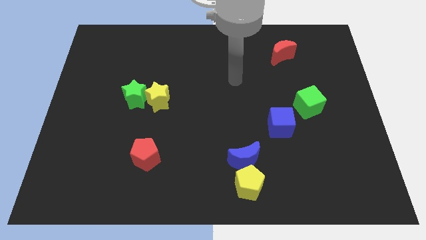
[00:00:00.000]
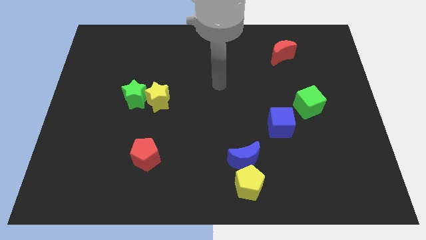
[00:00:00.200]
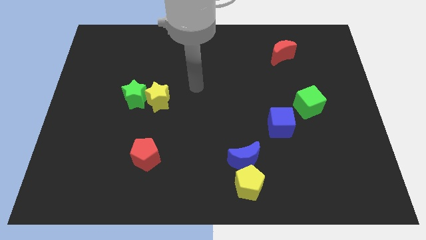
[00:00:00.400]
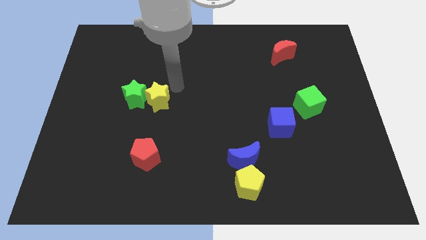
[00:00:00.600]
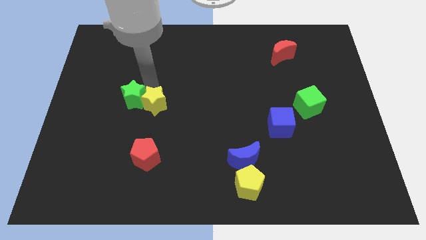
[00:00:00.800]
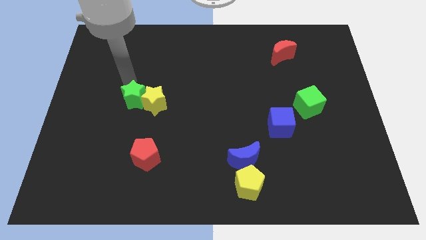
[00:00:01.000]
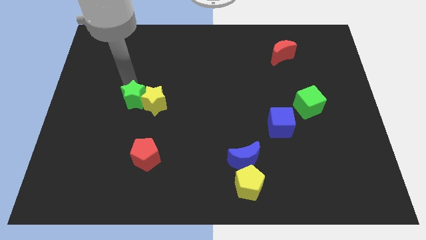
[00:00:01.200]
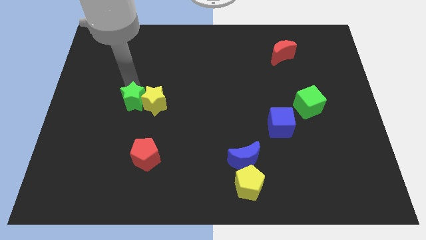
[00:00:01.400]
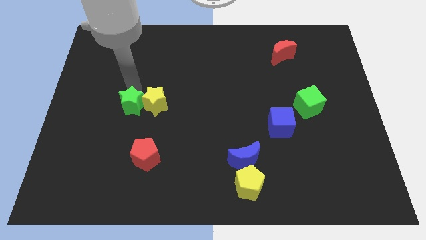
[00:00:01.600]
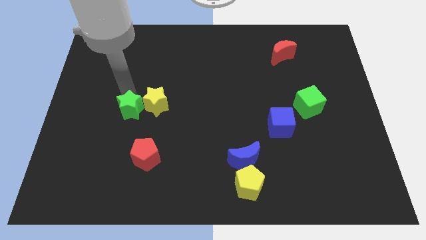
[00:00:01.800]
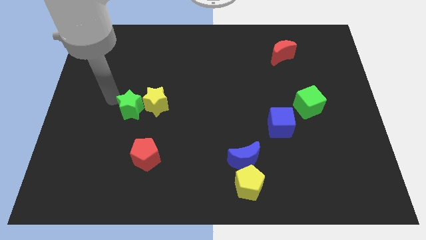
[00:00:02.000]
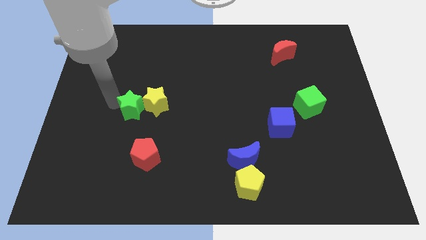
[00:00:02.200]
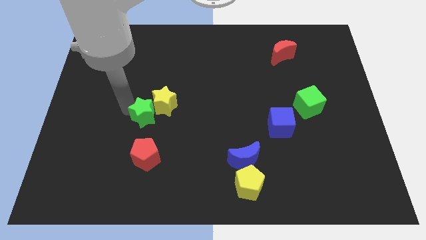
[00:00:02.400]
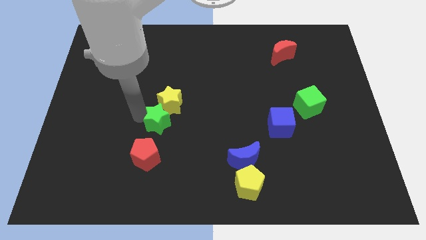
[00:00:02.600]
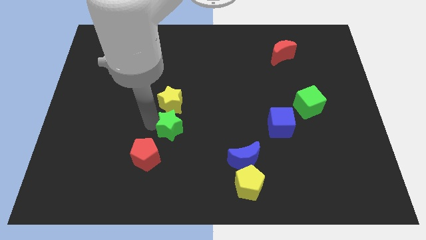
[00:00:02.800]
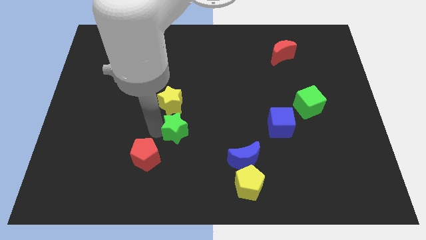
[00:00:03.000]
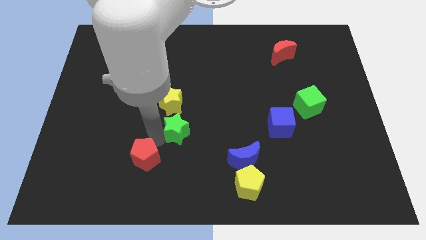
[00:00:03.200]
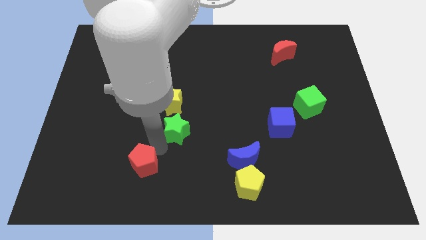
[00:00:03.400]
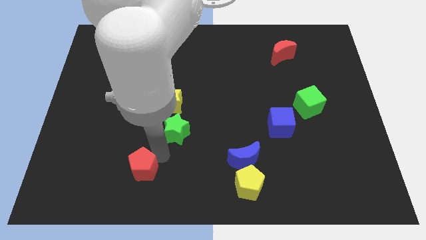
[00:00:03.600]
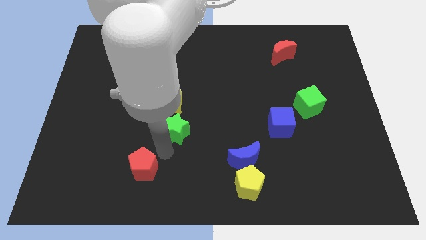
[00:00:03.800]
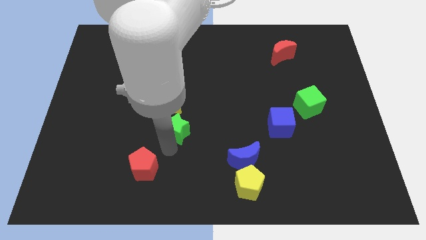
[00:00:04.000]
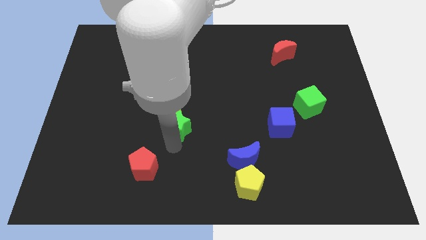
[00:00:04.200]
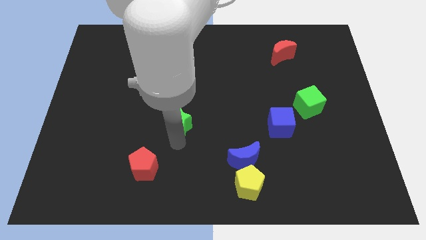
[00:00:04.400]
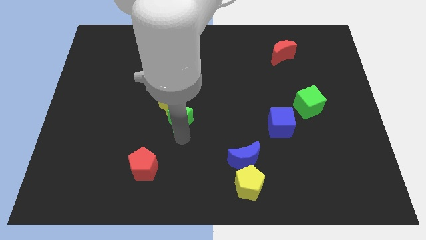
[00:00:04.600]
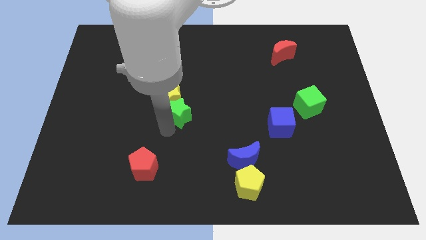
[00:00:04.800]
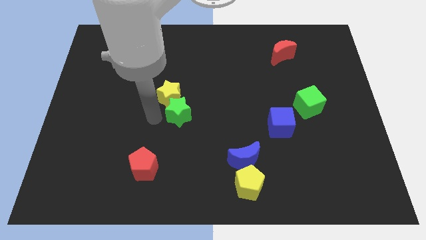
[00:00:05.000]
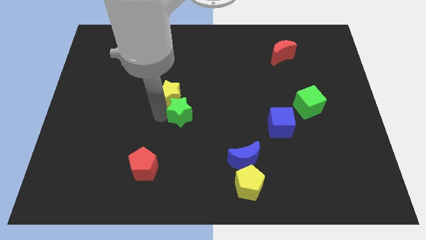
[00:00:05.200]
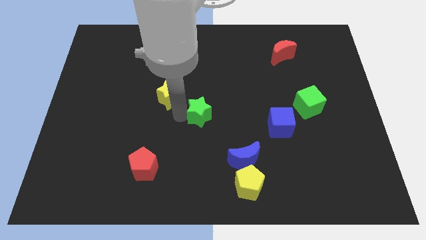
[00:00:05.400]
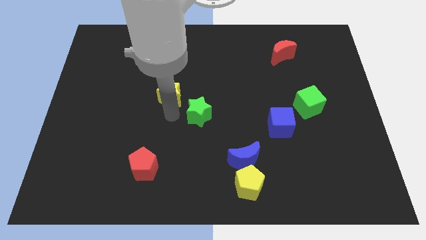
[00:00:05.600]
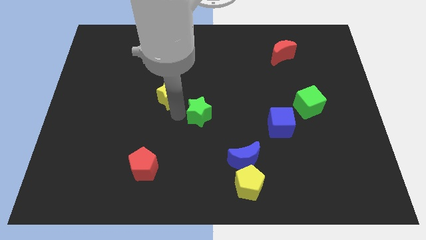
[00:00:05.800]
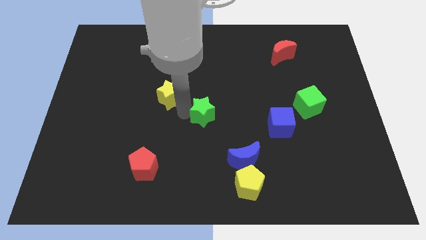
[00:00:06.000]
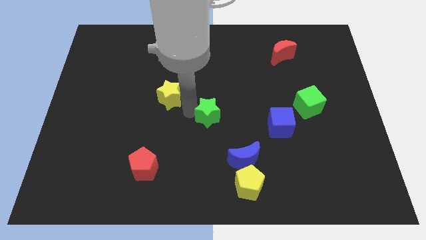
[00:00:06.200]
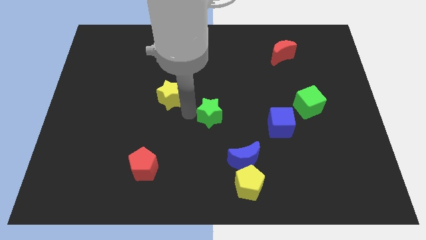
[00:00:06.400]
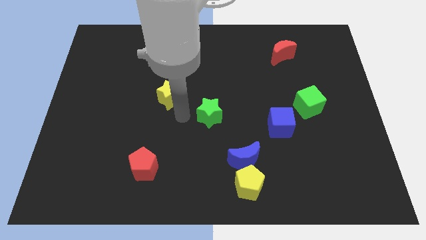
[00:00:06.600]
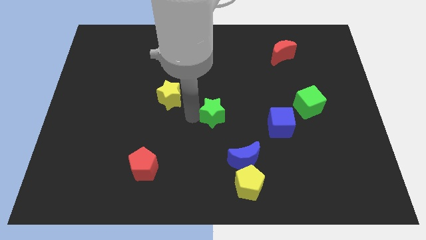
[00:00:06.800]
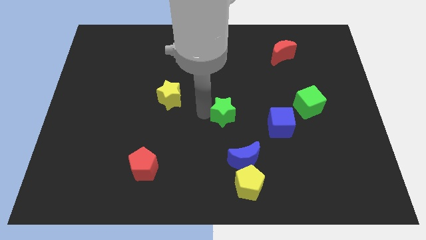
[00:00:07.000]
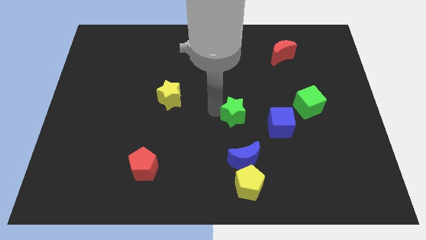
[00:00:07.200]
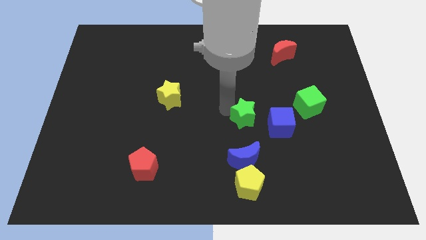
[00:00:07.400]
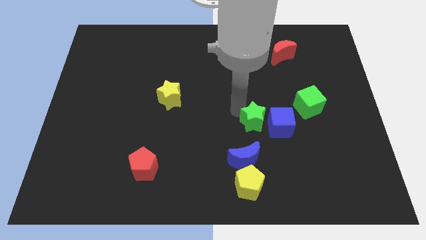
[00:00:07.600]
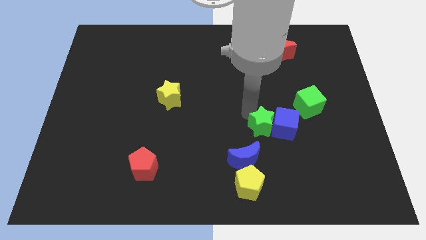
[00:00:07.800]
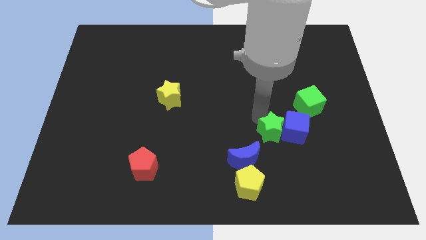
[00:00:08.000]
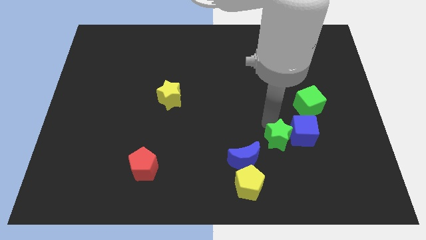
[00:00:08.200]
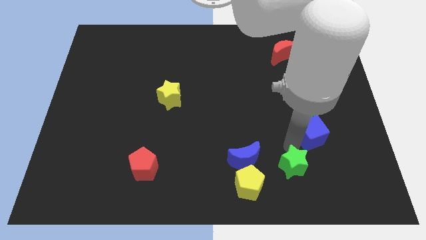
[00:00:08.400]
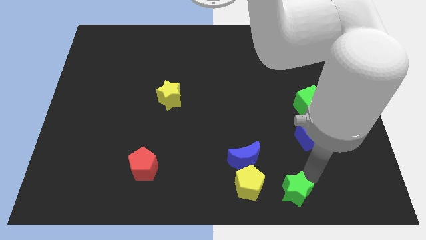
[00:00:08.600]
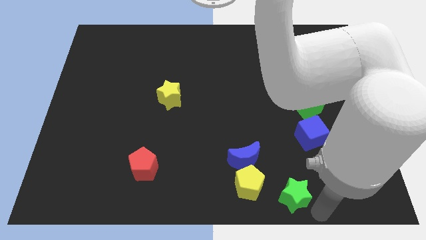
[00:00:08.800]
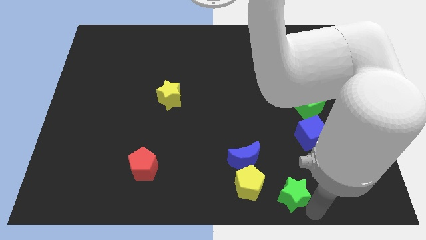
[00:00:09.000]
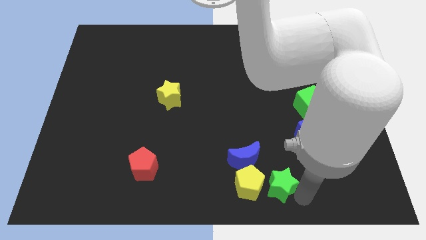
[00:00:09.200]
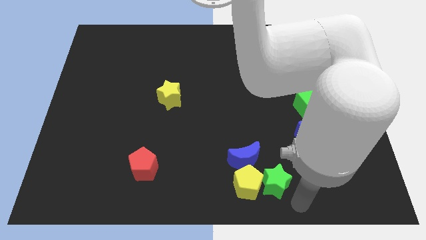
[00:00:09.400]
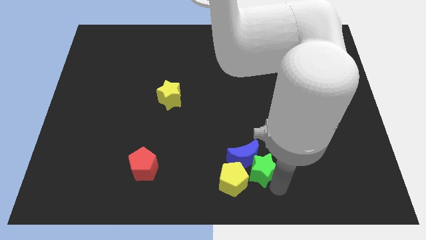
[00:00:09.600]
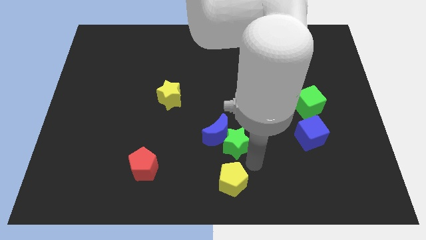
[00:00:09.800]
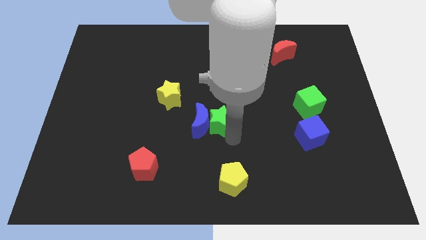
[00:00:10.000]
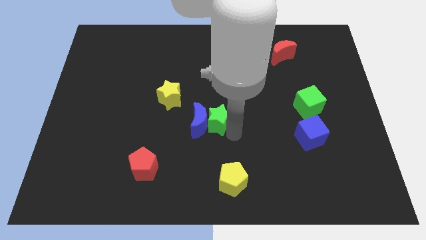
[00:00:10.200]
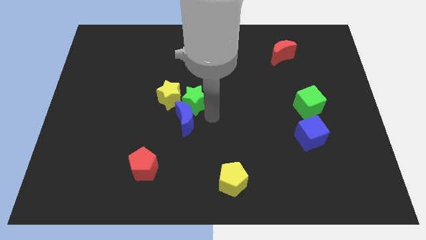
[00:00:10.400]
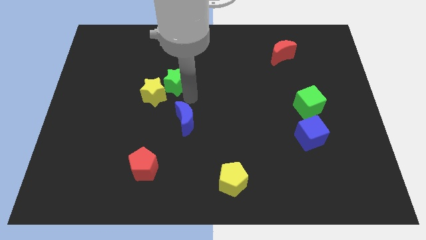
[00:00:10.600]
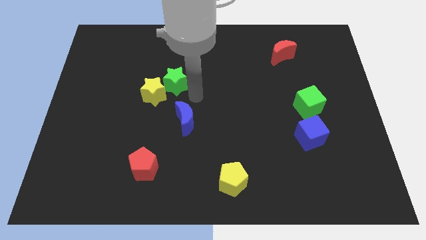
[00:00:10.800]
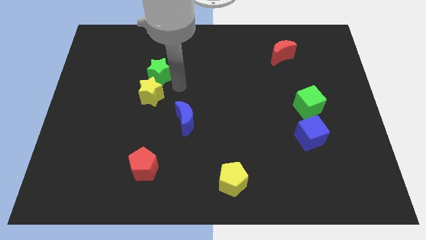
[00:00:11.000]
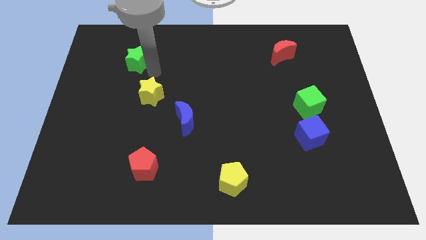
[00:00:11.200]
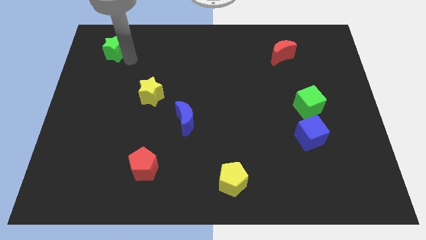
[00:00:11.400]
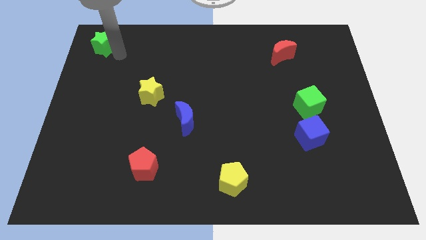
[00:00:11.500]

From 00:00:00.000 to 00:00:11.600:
push the green star to the top left corner
